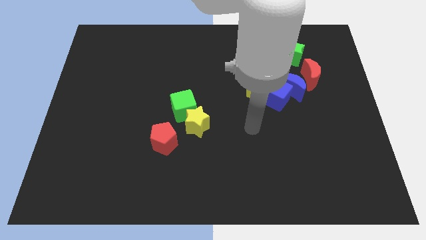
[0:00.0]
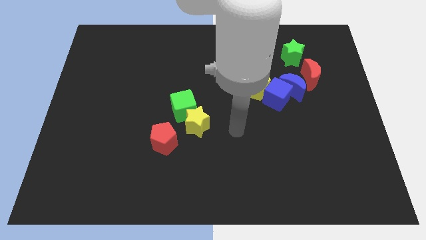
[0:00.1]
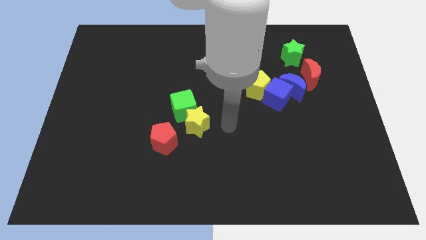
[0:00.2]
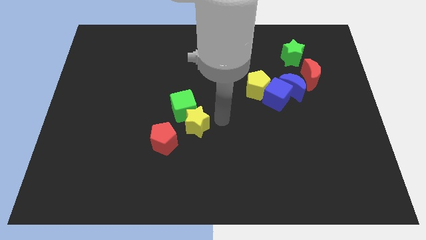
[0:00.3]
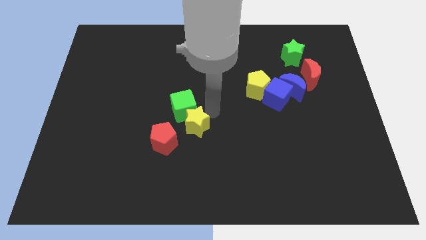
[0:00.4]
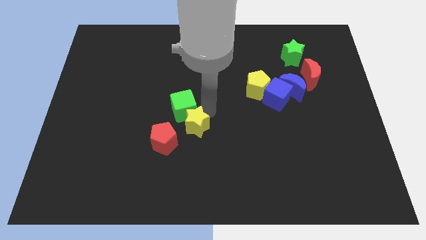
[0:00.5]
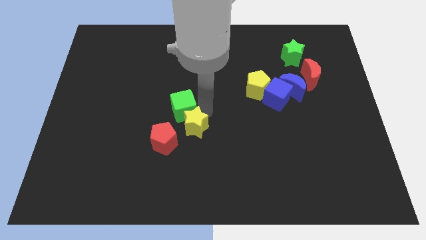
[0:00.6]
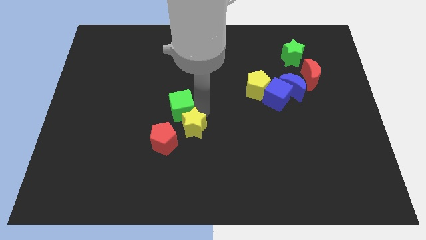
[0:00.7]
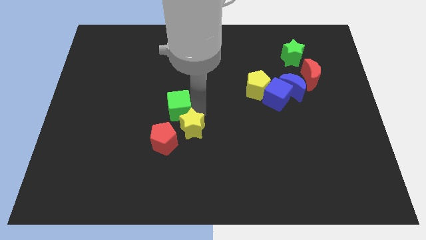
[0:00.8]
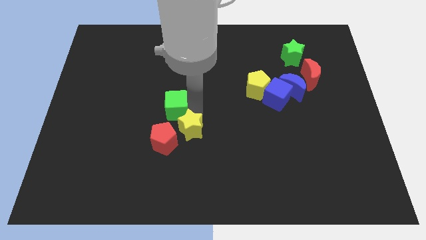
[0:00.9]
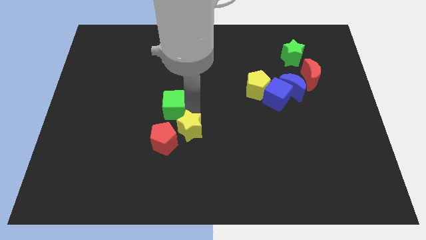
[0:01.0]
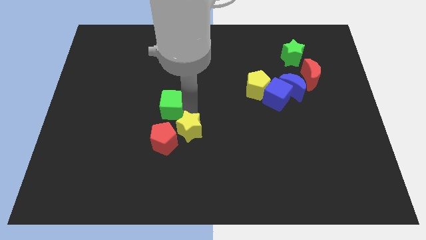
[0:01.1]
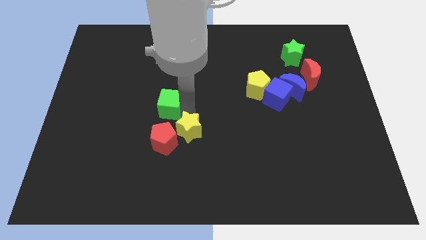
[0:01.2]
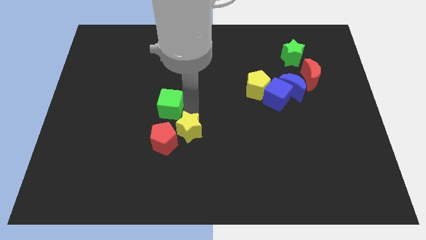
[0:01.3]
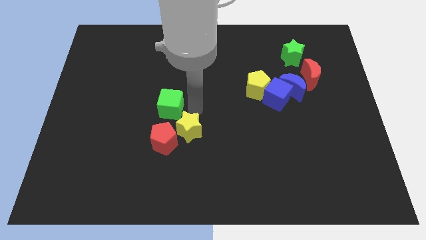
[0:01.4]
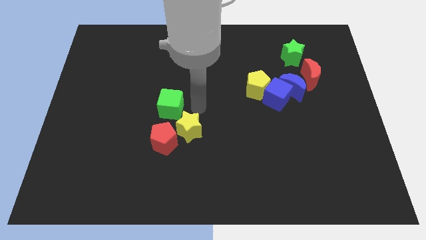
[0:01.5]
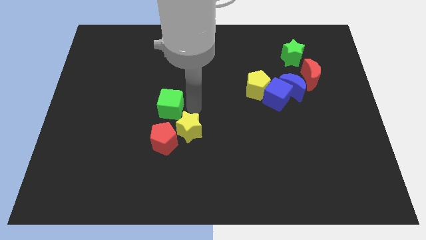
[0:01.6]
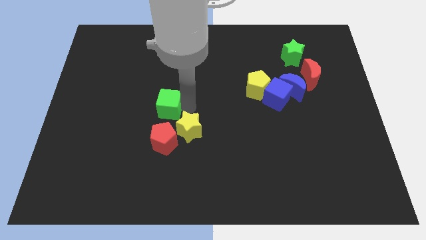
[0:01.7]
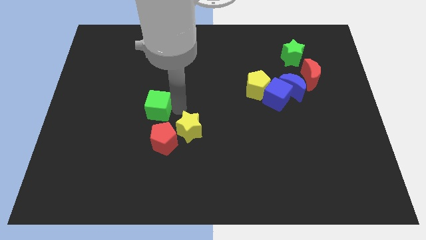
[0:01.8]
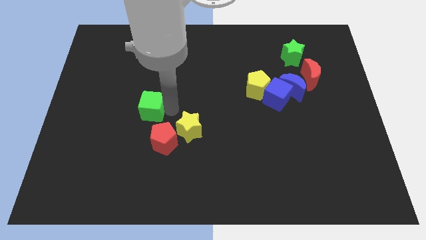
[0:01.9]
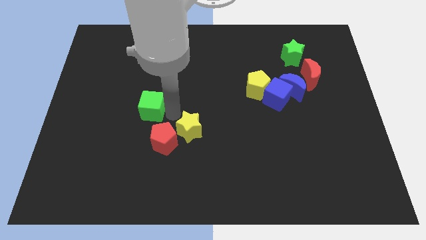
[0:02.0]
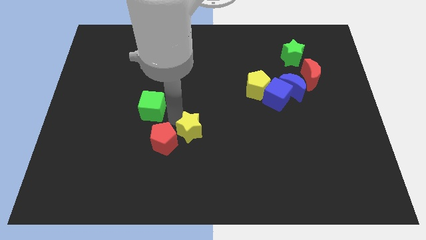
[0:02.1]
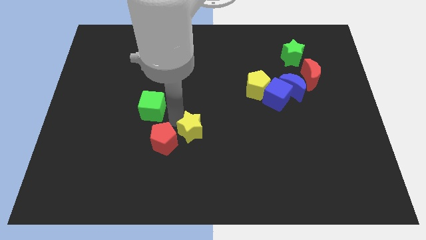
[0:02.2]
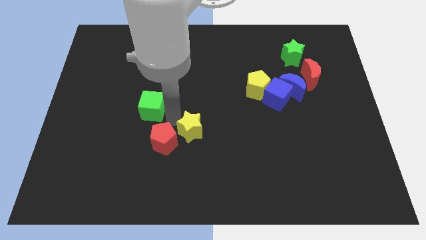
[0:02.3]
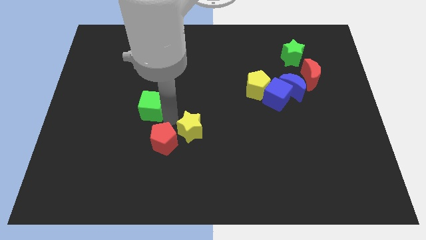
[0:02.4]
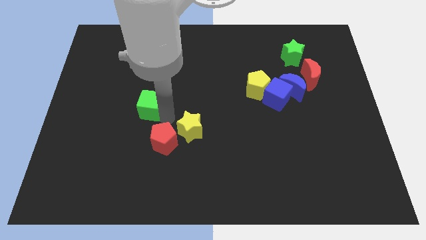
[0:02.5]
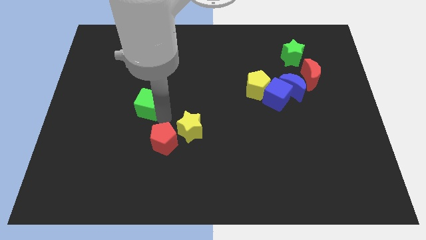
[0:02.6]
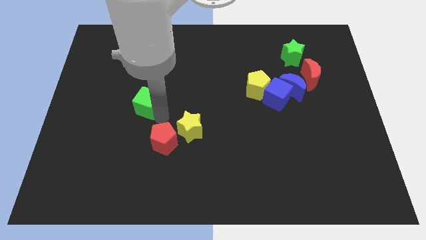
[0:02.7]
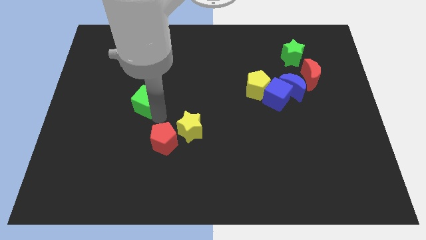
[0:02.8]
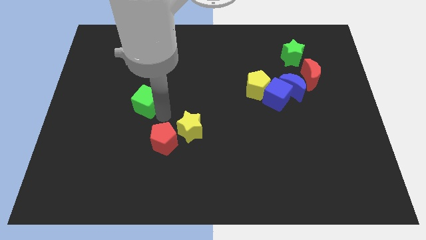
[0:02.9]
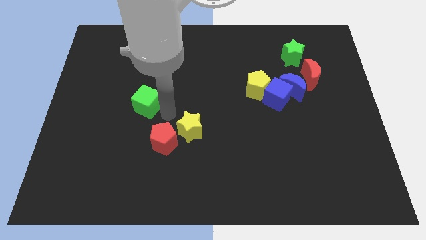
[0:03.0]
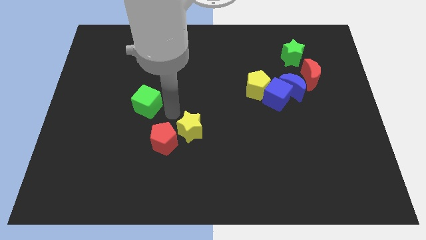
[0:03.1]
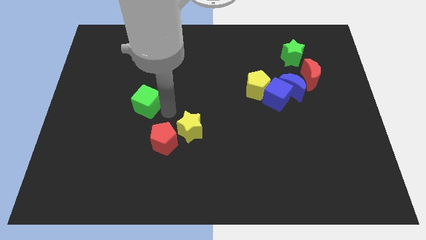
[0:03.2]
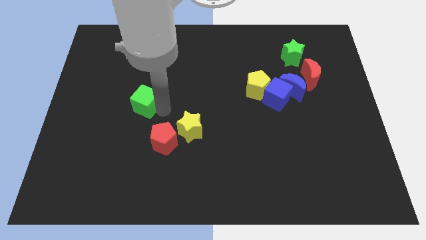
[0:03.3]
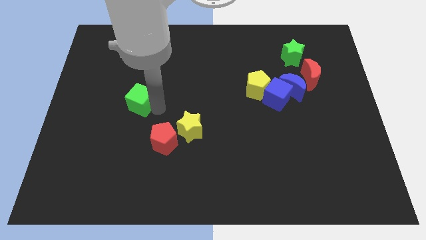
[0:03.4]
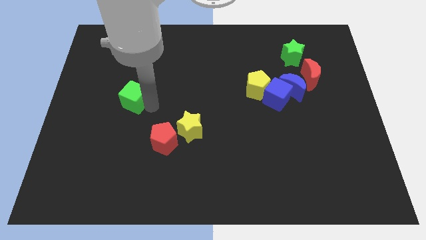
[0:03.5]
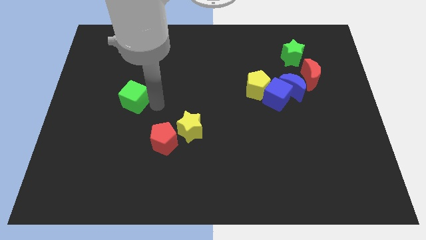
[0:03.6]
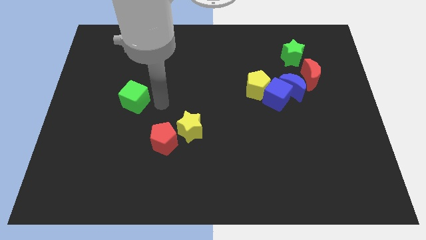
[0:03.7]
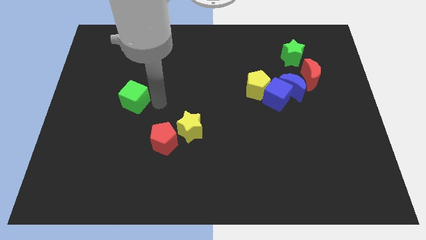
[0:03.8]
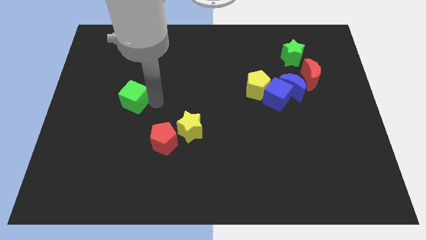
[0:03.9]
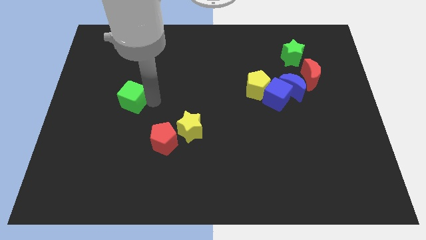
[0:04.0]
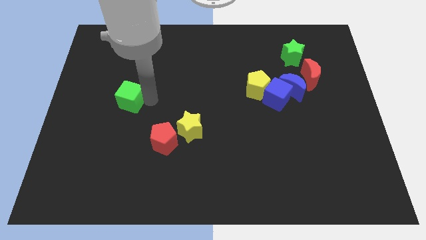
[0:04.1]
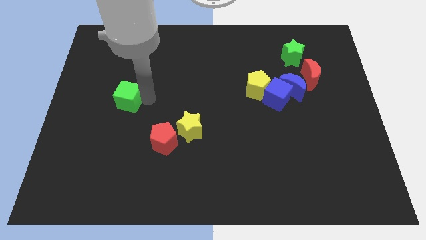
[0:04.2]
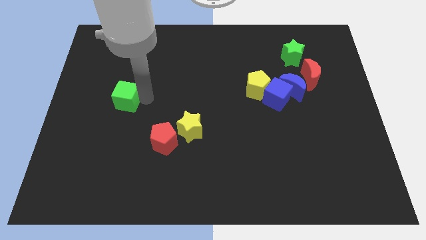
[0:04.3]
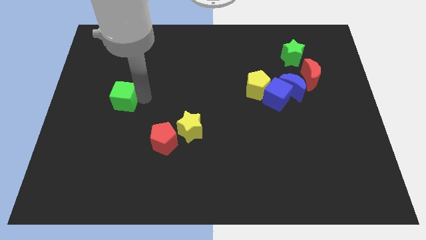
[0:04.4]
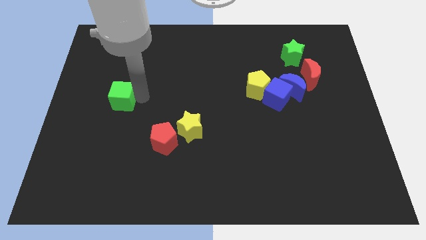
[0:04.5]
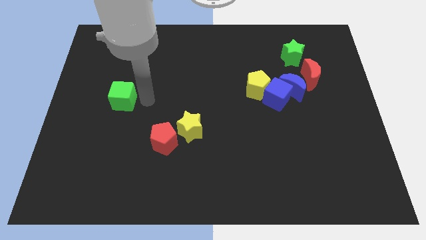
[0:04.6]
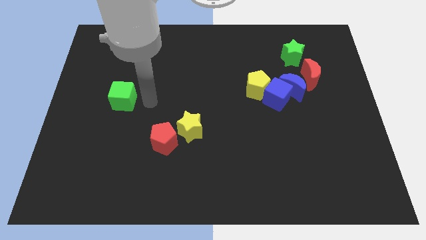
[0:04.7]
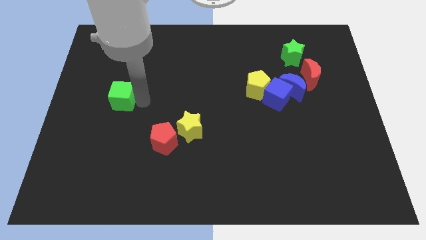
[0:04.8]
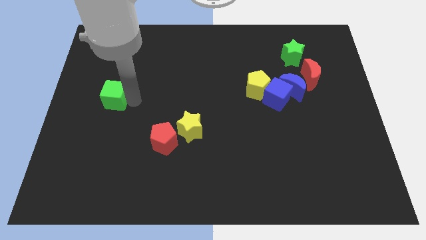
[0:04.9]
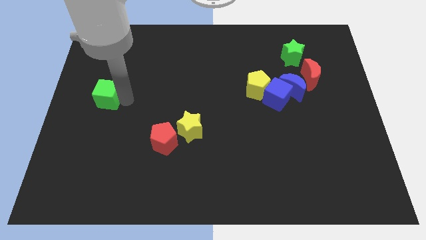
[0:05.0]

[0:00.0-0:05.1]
move the green cube to the left side of the board

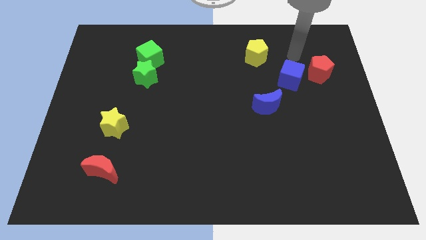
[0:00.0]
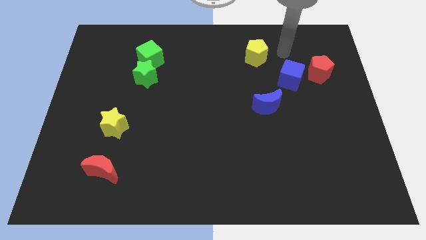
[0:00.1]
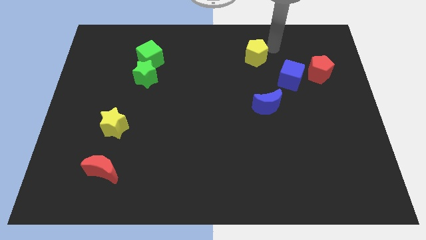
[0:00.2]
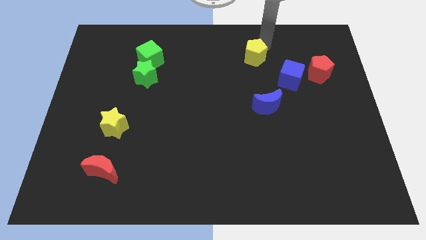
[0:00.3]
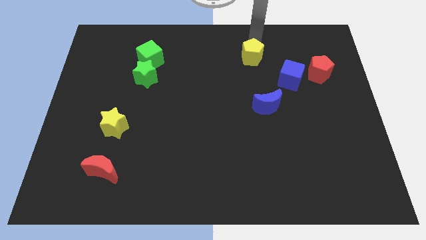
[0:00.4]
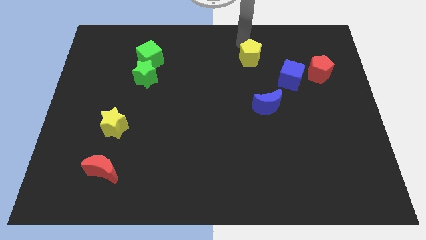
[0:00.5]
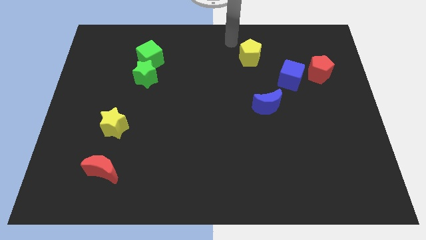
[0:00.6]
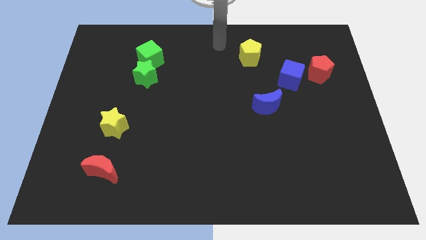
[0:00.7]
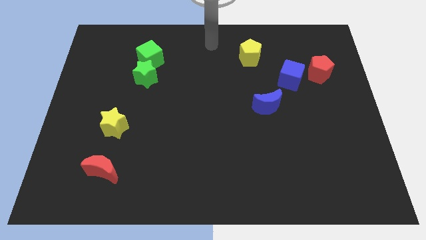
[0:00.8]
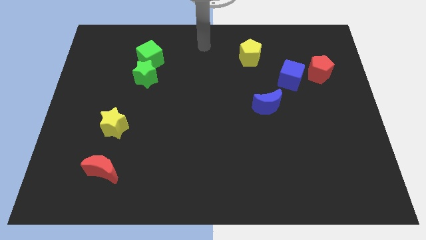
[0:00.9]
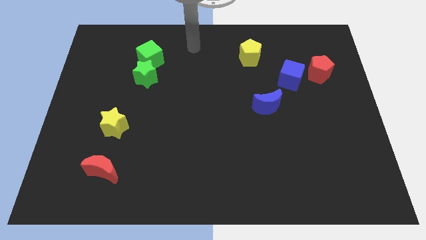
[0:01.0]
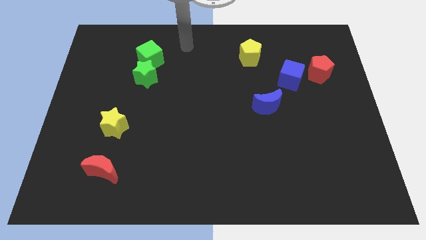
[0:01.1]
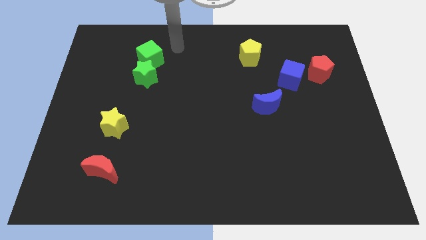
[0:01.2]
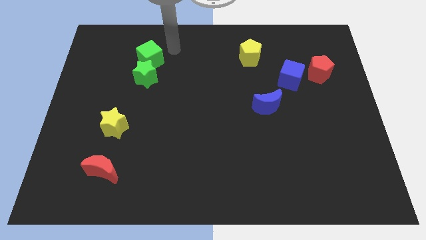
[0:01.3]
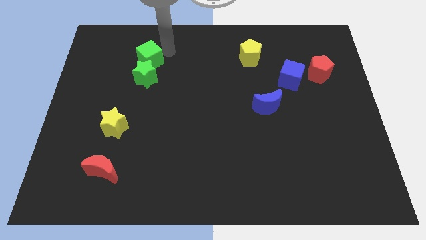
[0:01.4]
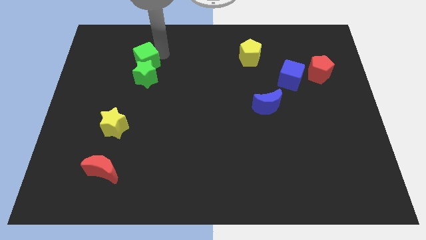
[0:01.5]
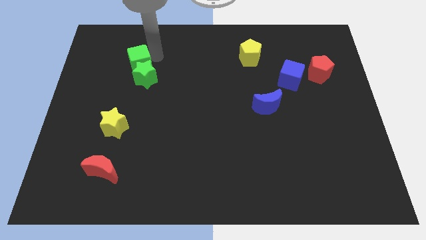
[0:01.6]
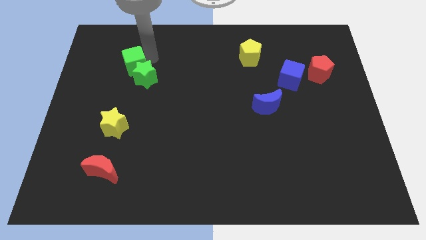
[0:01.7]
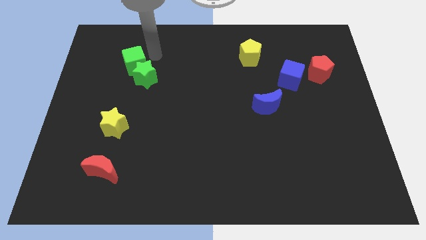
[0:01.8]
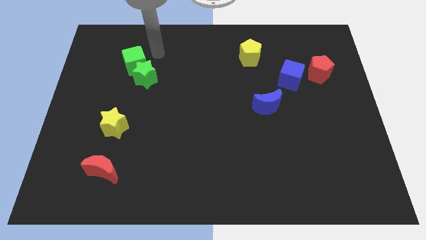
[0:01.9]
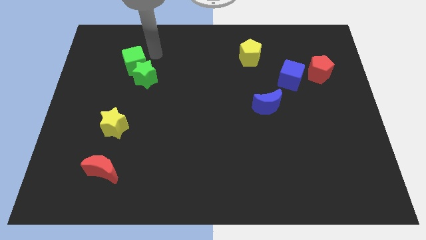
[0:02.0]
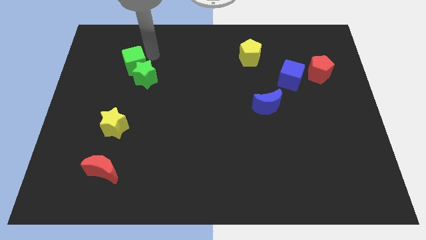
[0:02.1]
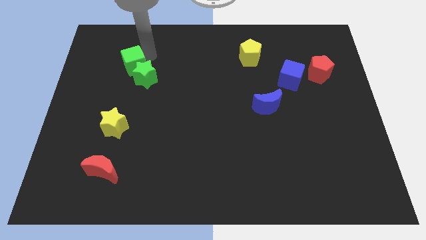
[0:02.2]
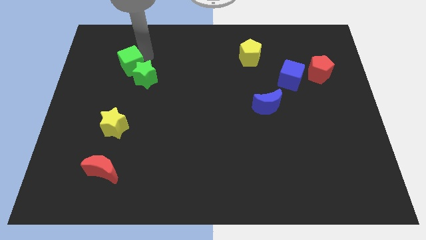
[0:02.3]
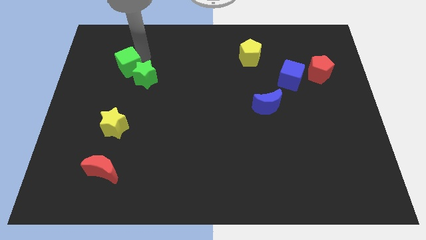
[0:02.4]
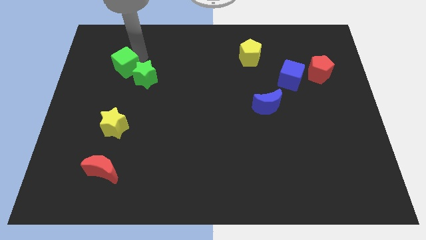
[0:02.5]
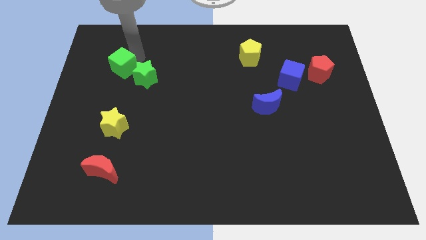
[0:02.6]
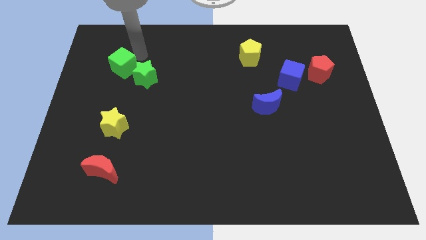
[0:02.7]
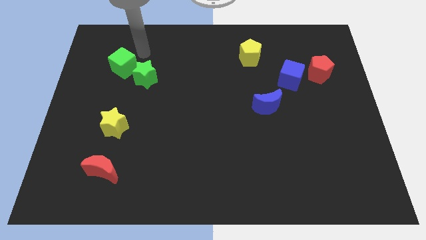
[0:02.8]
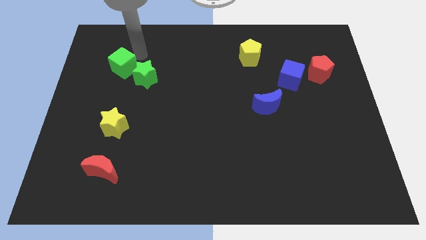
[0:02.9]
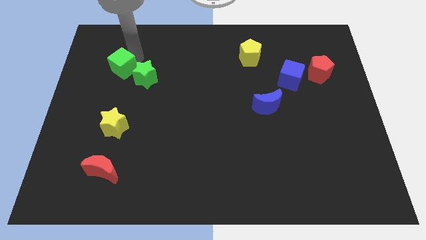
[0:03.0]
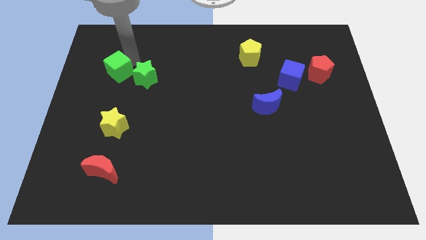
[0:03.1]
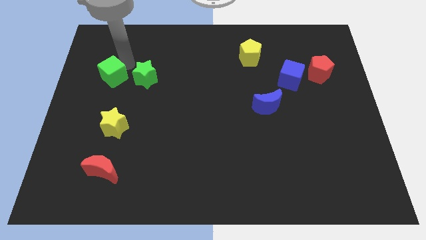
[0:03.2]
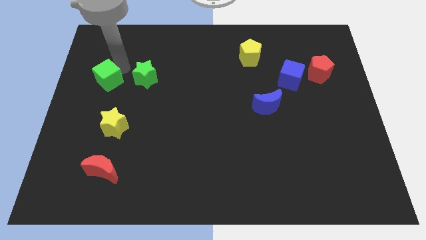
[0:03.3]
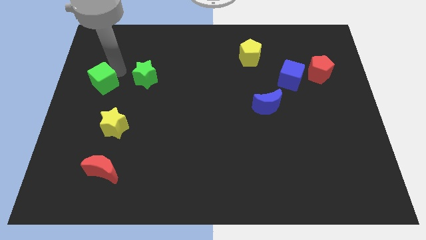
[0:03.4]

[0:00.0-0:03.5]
move the green cube to the center left
